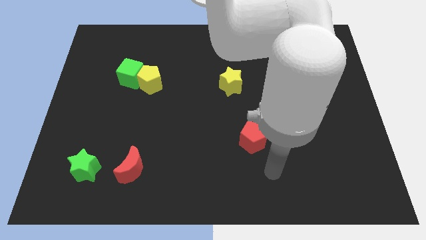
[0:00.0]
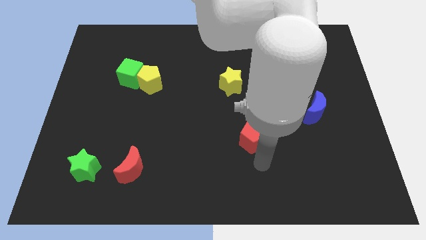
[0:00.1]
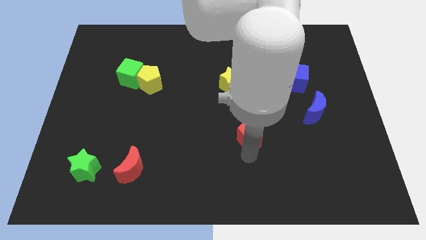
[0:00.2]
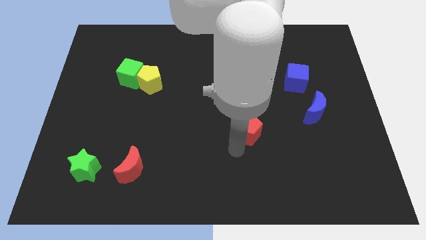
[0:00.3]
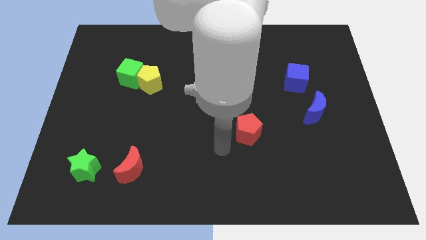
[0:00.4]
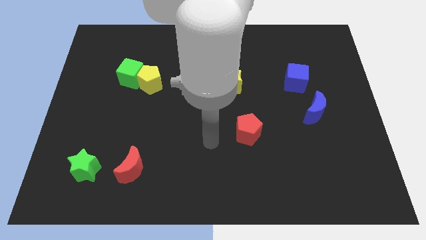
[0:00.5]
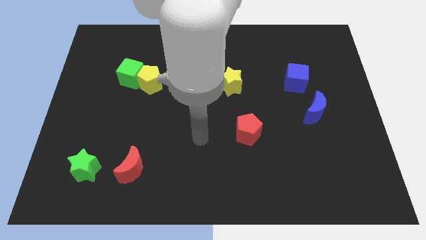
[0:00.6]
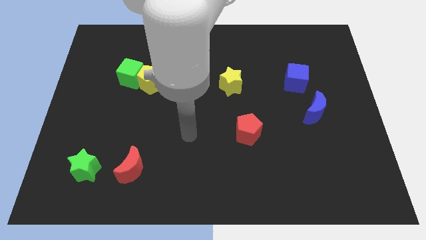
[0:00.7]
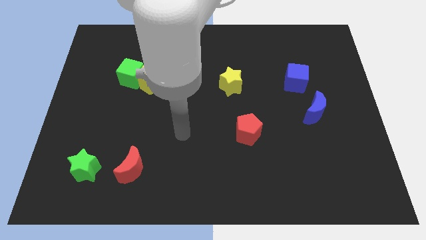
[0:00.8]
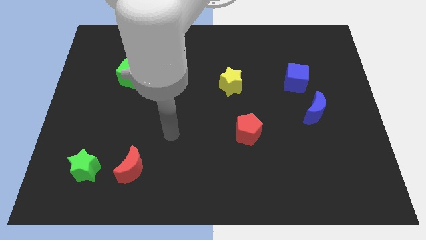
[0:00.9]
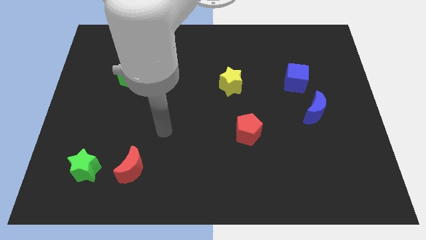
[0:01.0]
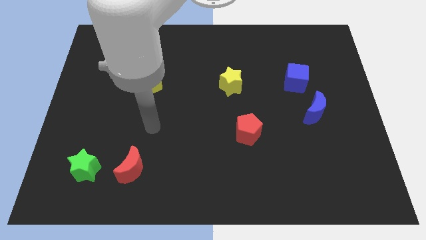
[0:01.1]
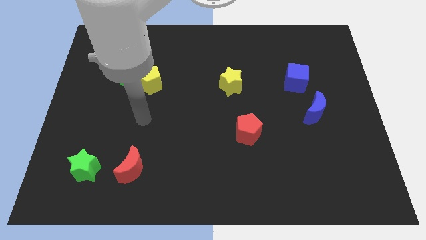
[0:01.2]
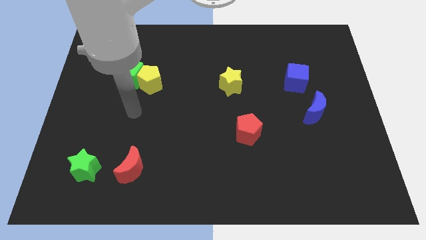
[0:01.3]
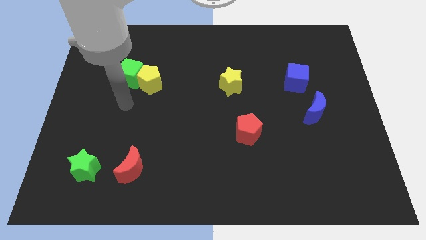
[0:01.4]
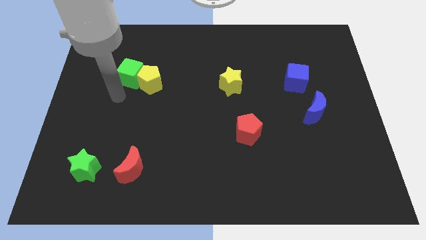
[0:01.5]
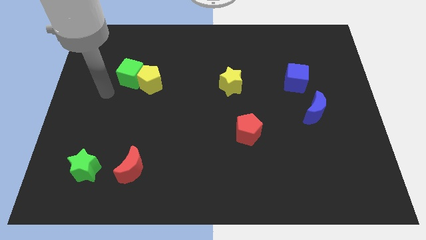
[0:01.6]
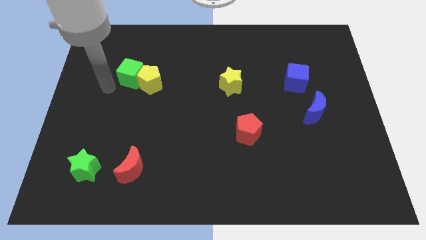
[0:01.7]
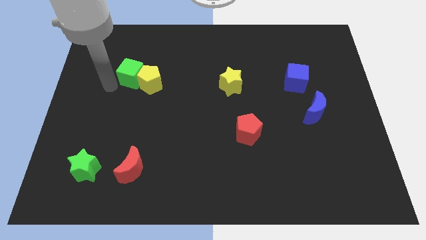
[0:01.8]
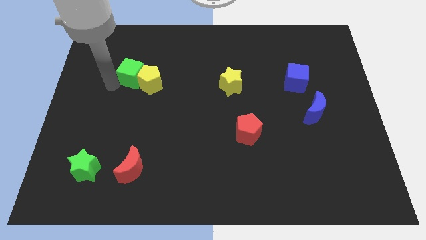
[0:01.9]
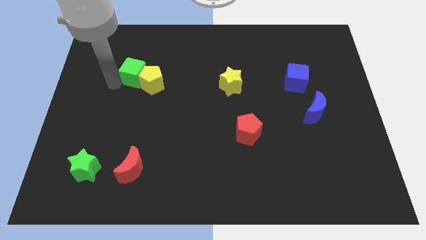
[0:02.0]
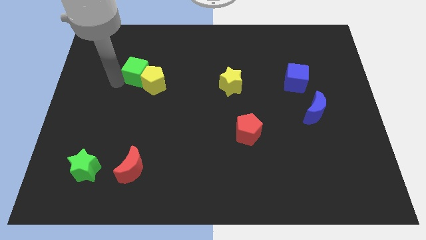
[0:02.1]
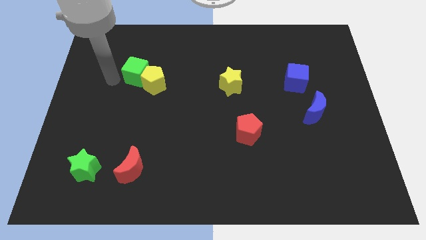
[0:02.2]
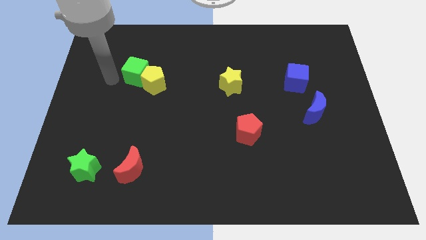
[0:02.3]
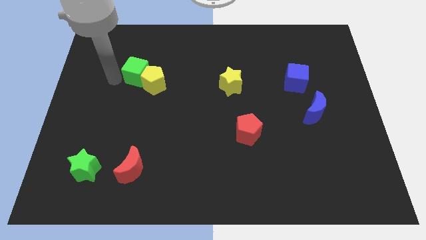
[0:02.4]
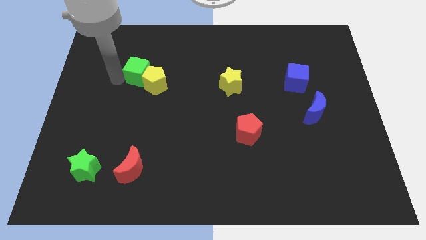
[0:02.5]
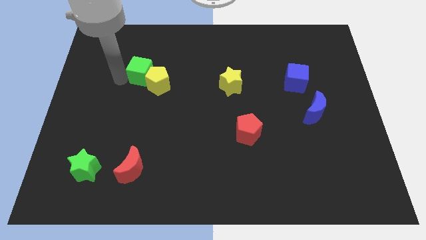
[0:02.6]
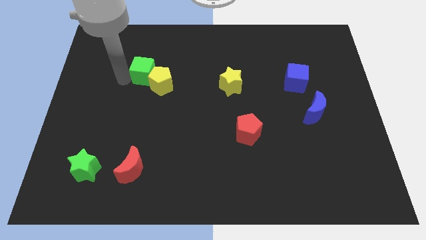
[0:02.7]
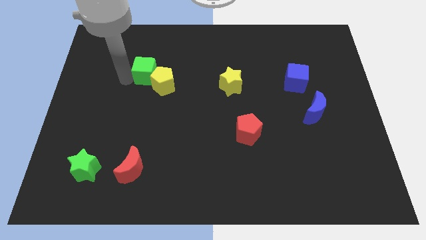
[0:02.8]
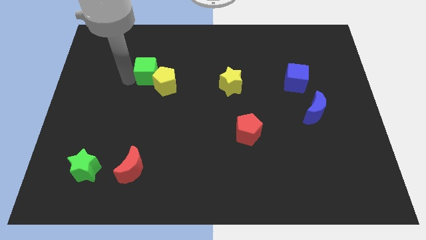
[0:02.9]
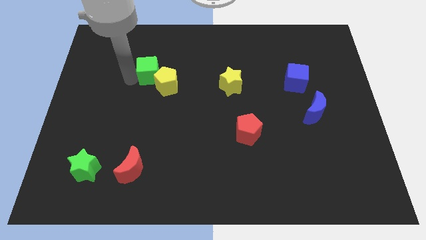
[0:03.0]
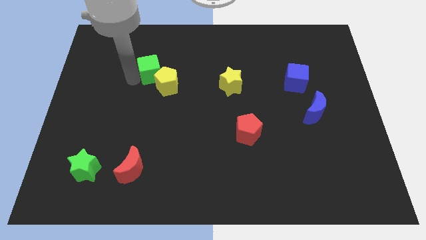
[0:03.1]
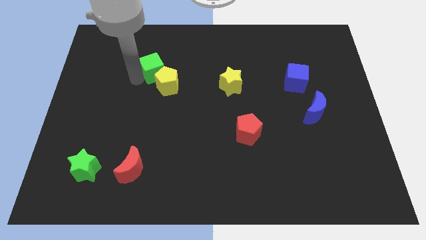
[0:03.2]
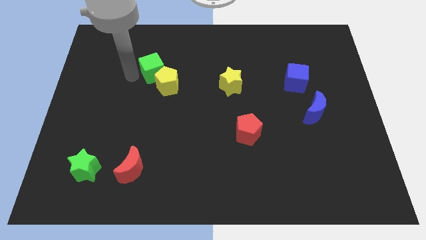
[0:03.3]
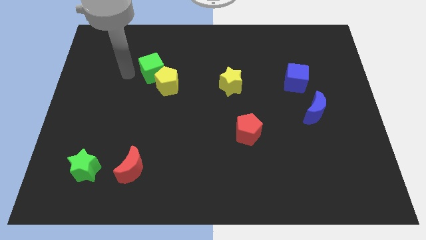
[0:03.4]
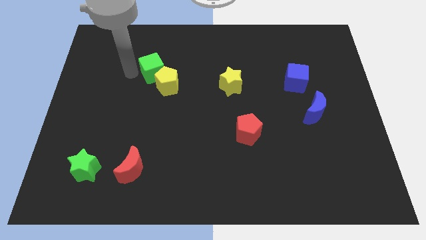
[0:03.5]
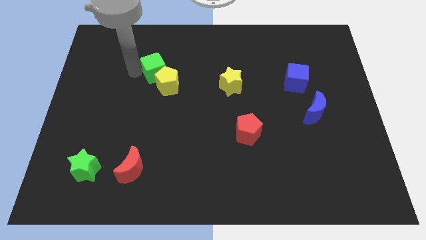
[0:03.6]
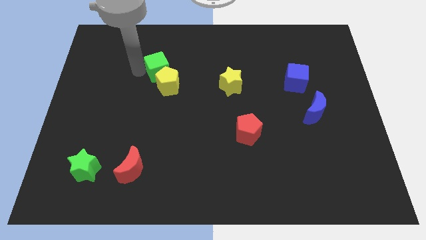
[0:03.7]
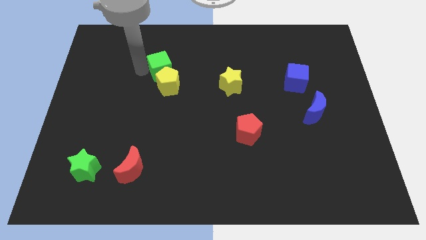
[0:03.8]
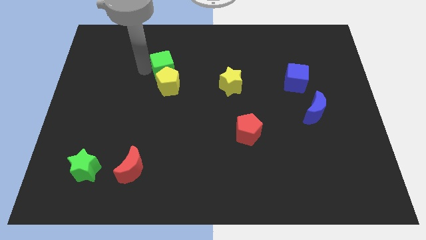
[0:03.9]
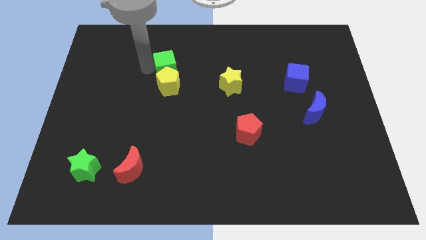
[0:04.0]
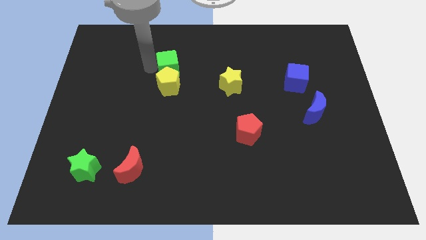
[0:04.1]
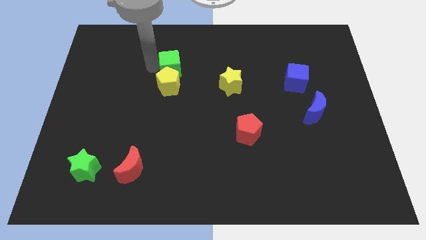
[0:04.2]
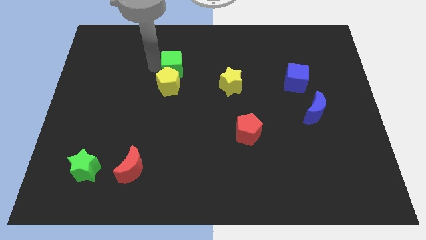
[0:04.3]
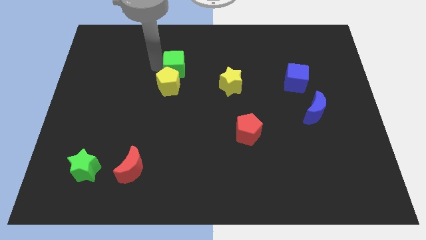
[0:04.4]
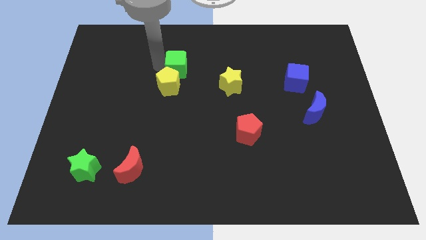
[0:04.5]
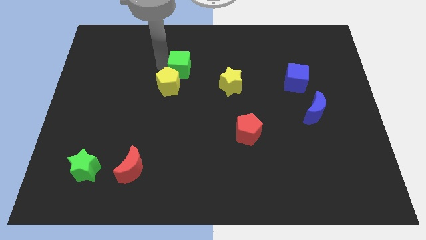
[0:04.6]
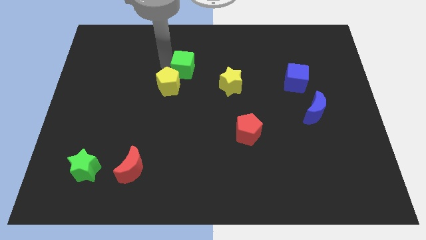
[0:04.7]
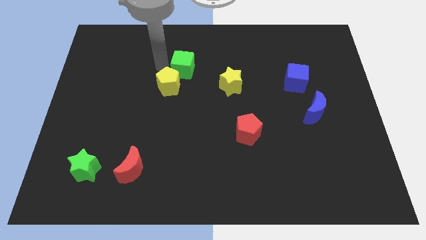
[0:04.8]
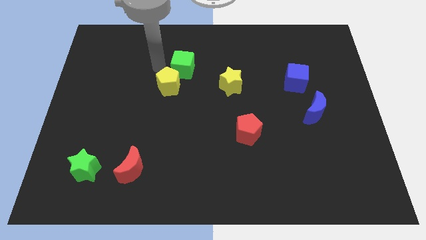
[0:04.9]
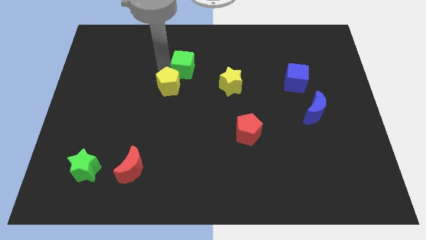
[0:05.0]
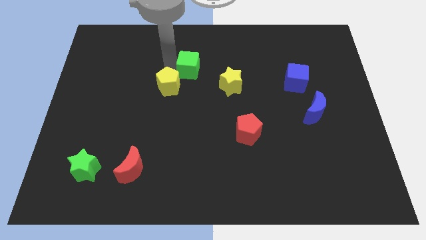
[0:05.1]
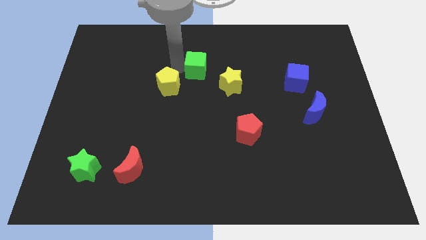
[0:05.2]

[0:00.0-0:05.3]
slide the green cube diagonally up and to the left of the yellow star

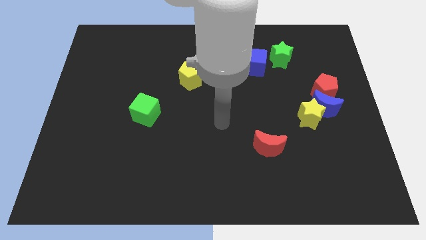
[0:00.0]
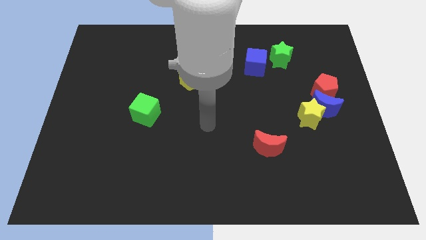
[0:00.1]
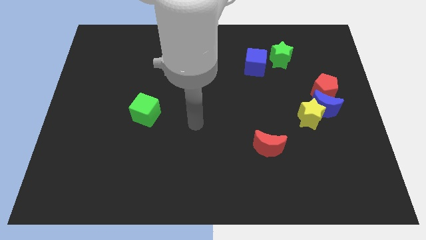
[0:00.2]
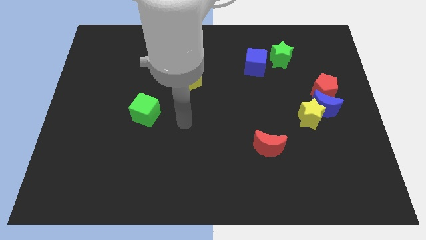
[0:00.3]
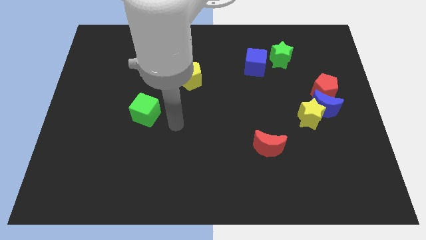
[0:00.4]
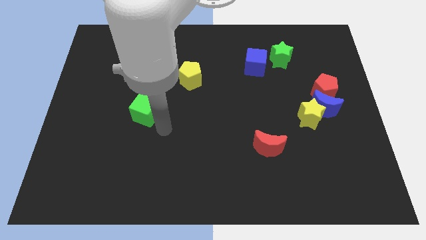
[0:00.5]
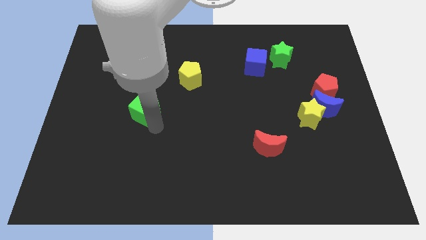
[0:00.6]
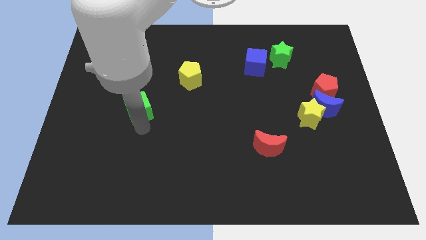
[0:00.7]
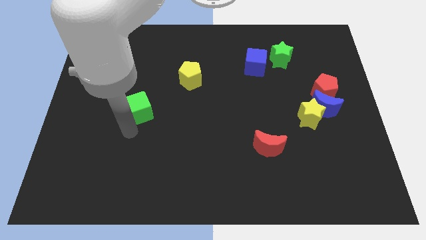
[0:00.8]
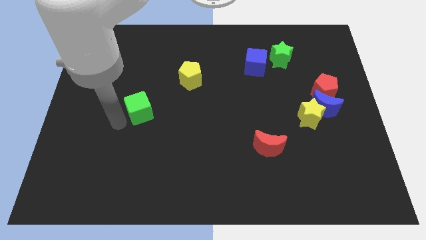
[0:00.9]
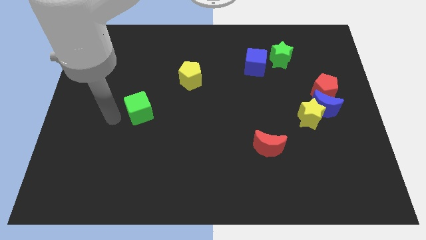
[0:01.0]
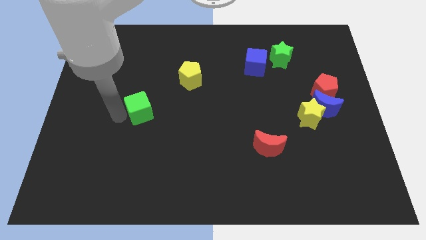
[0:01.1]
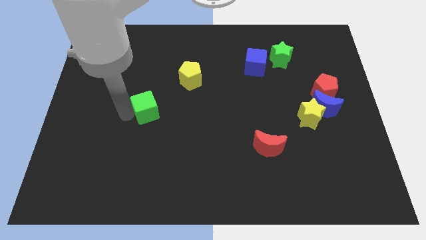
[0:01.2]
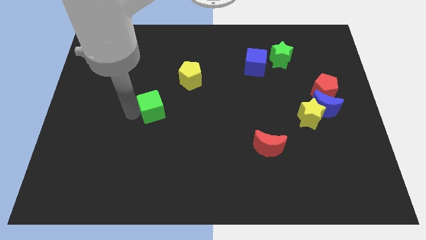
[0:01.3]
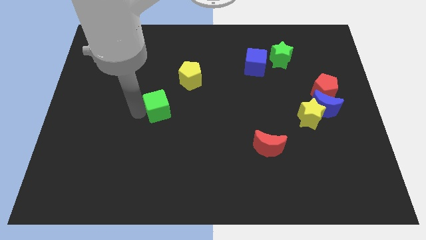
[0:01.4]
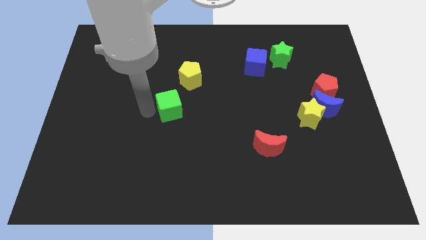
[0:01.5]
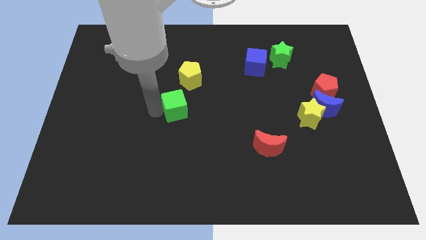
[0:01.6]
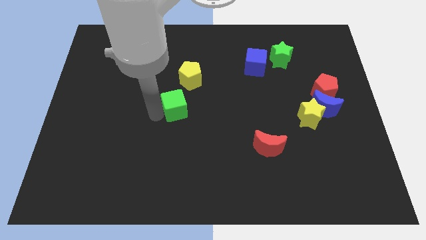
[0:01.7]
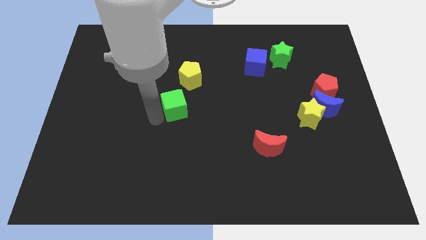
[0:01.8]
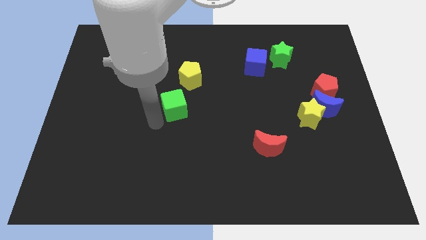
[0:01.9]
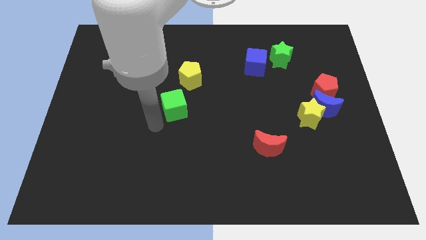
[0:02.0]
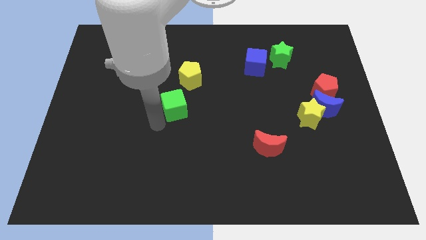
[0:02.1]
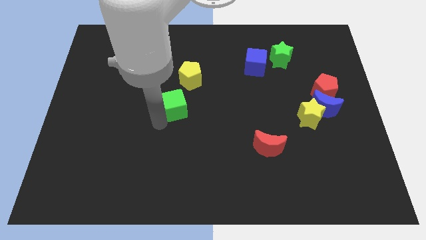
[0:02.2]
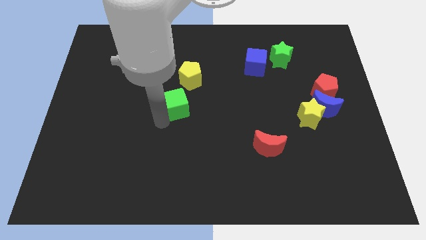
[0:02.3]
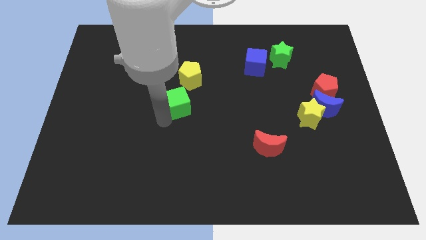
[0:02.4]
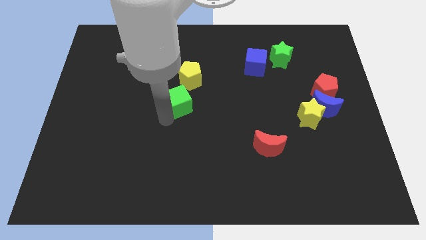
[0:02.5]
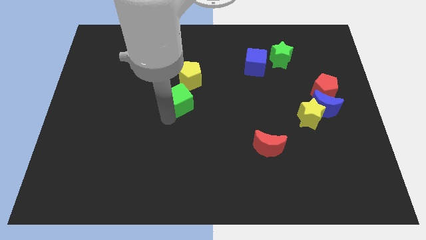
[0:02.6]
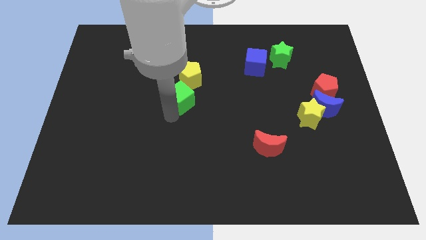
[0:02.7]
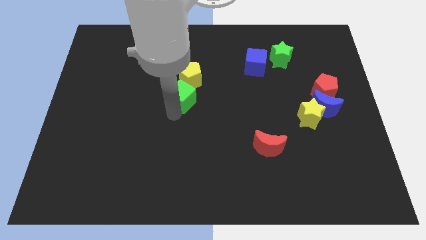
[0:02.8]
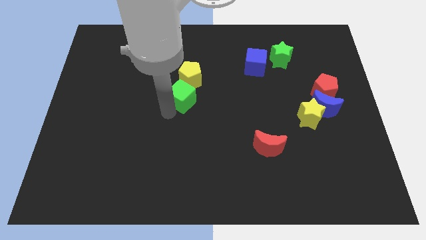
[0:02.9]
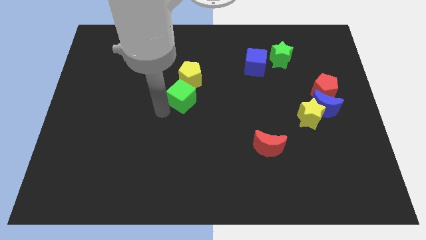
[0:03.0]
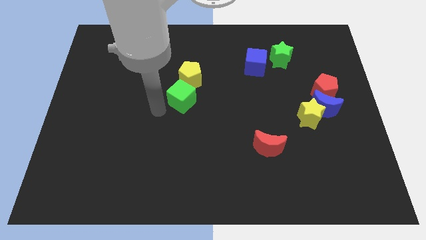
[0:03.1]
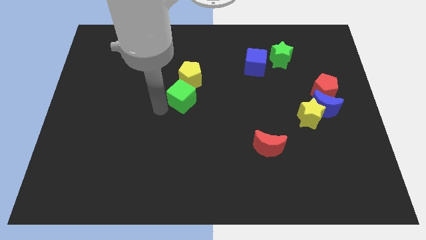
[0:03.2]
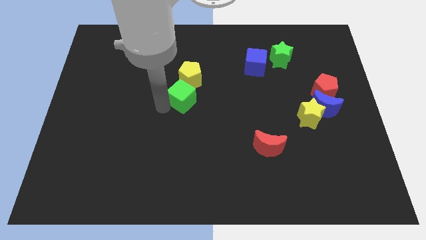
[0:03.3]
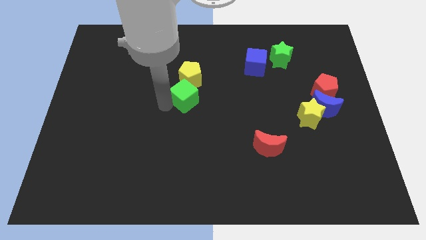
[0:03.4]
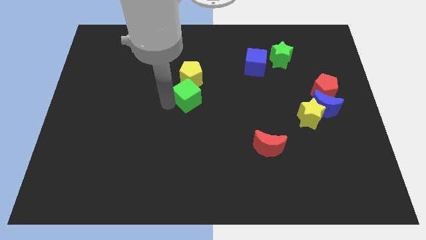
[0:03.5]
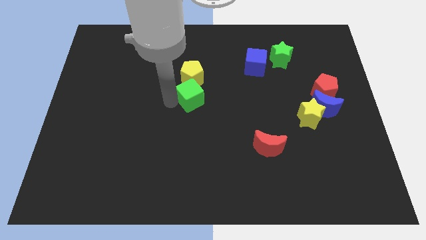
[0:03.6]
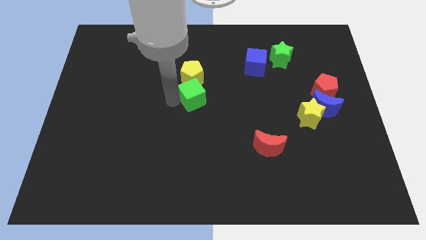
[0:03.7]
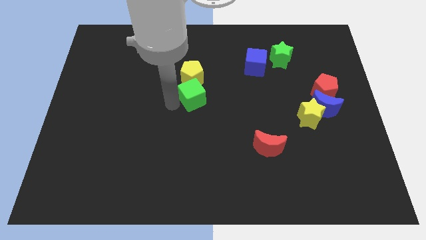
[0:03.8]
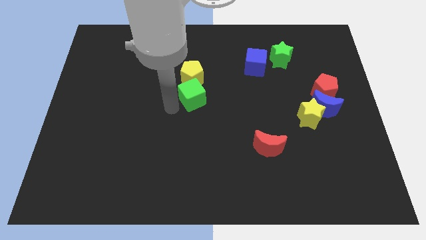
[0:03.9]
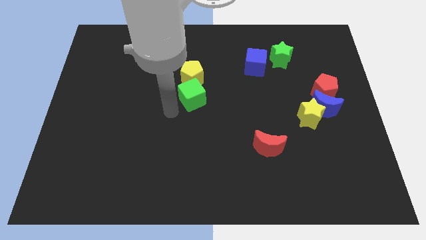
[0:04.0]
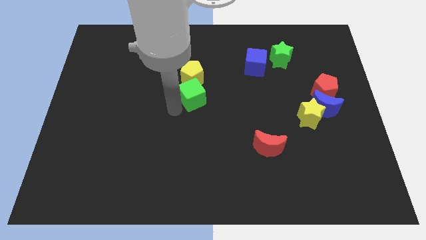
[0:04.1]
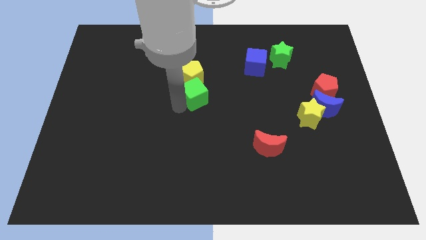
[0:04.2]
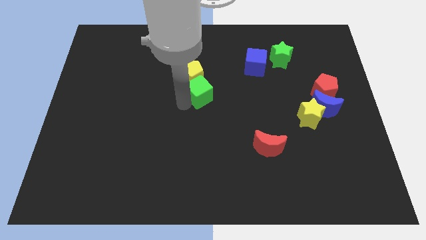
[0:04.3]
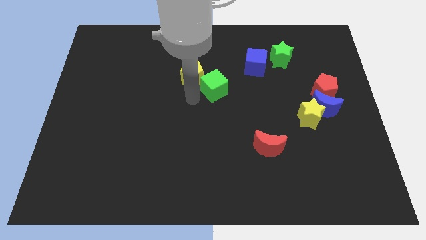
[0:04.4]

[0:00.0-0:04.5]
push the green cube just right of the yellow pentagon
